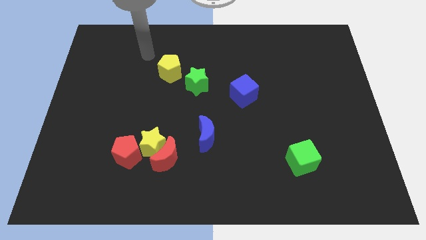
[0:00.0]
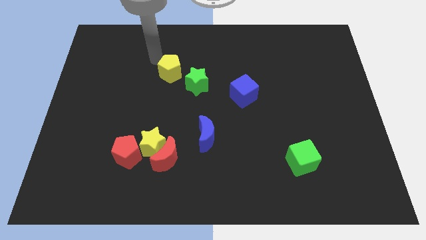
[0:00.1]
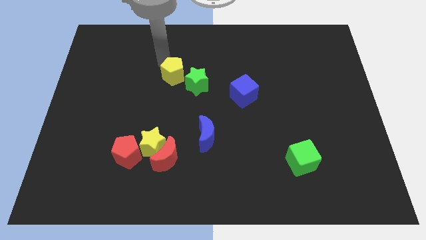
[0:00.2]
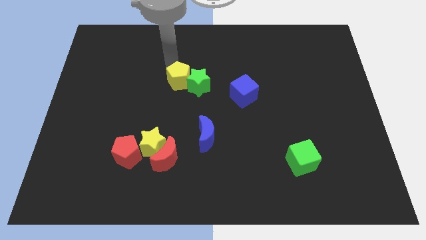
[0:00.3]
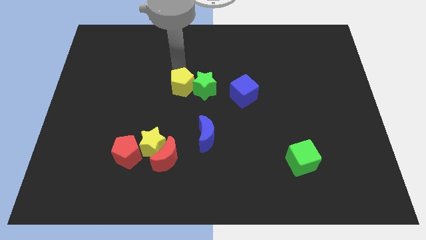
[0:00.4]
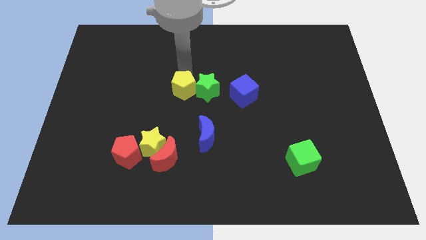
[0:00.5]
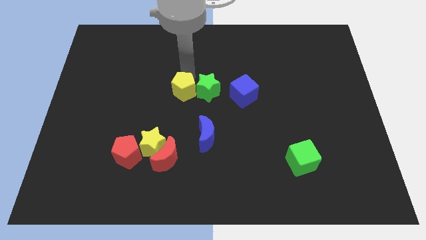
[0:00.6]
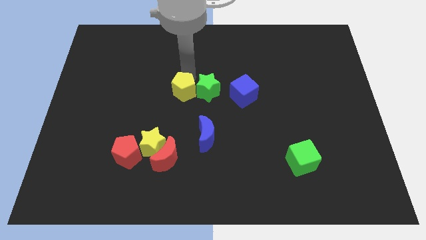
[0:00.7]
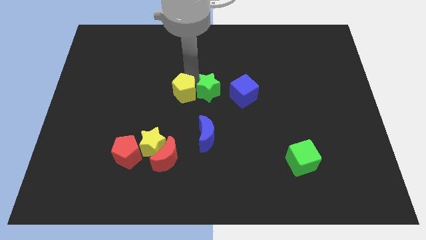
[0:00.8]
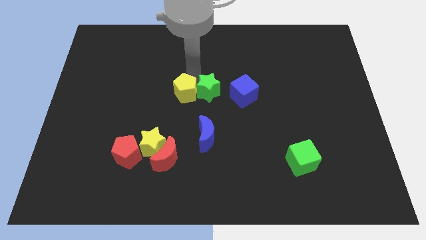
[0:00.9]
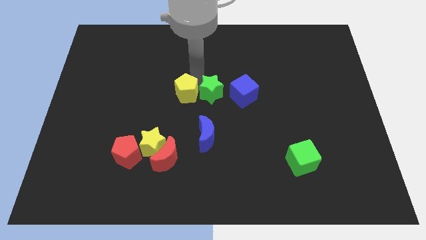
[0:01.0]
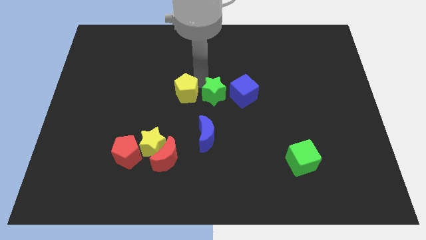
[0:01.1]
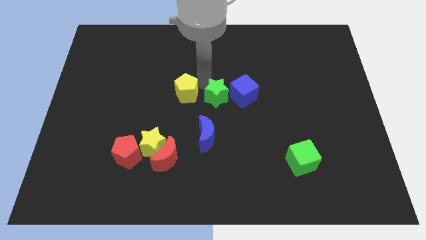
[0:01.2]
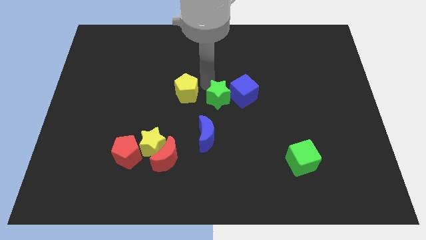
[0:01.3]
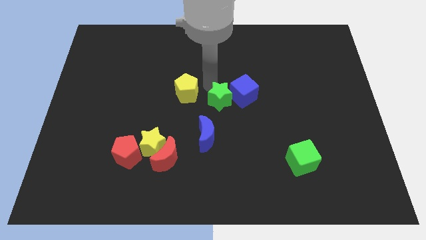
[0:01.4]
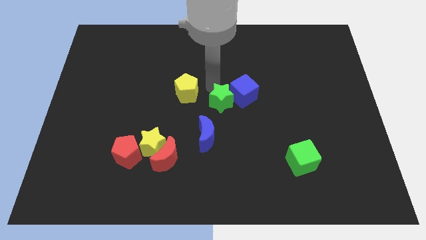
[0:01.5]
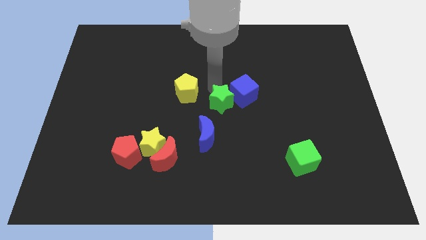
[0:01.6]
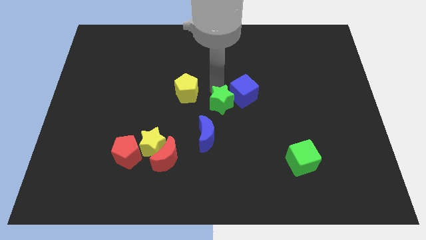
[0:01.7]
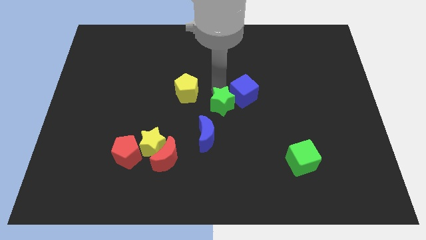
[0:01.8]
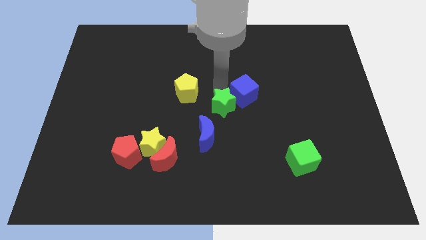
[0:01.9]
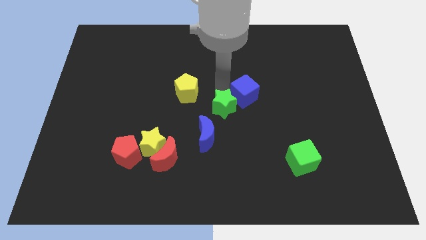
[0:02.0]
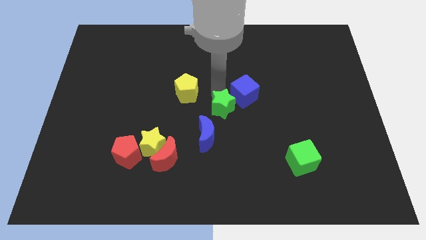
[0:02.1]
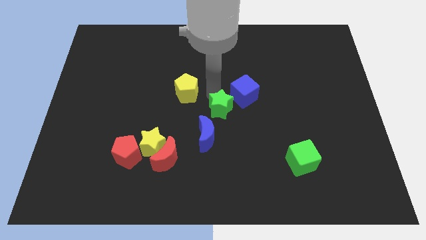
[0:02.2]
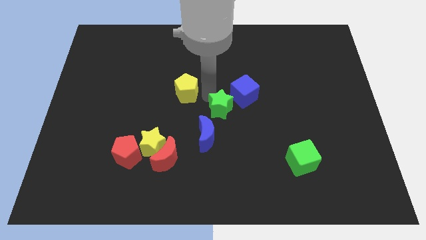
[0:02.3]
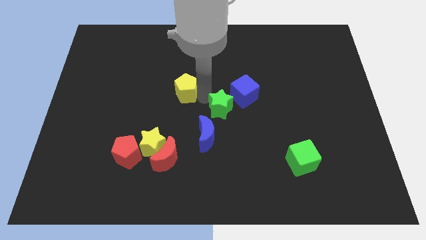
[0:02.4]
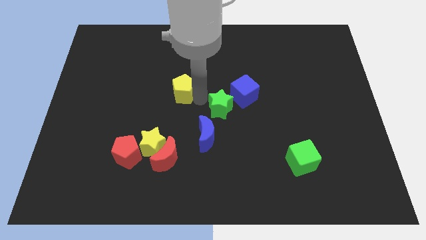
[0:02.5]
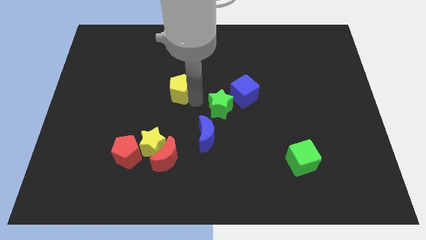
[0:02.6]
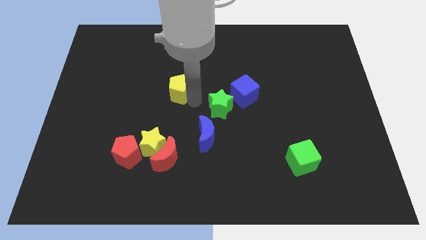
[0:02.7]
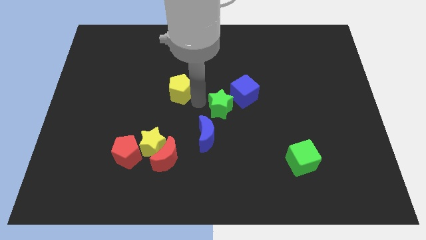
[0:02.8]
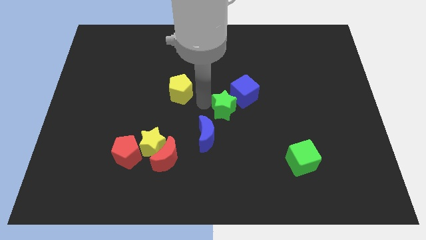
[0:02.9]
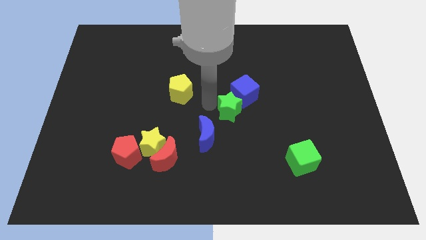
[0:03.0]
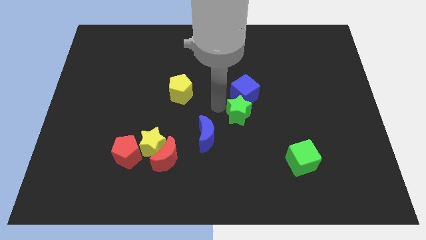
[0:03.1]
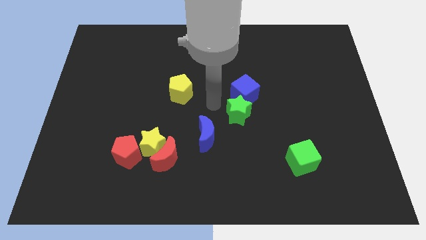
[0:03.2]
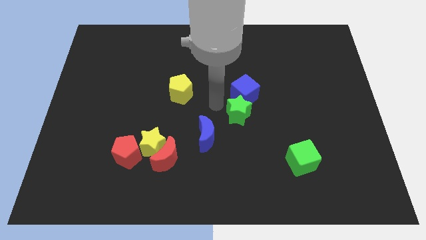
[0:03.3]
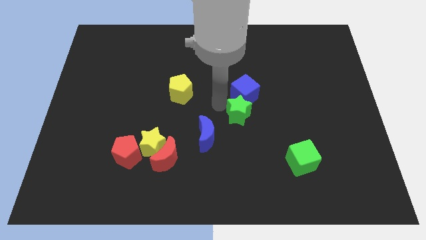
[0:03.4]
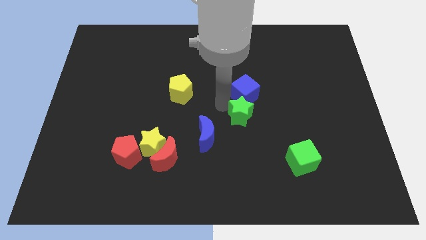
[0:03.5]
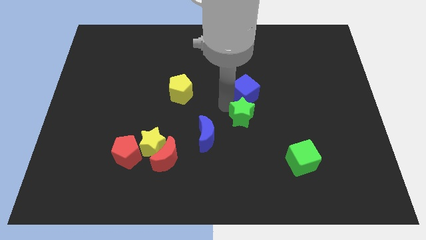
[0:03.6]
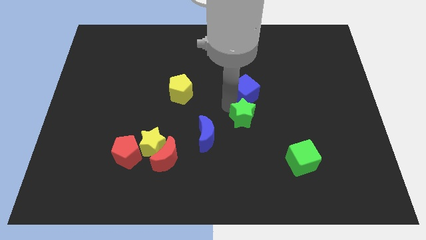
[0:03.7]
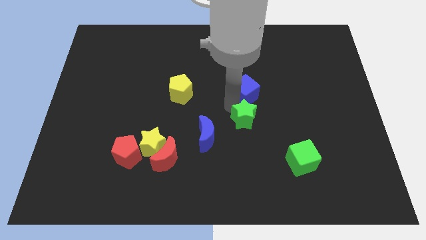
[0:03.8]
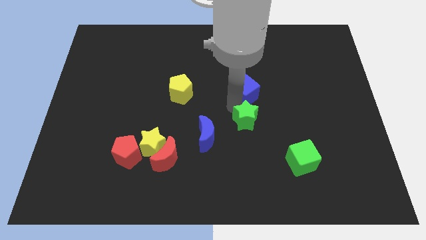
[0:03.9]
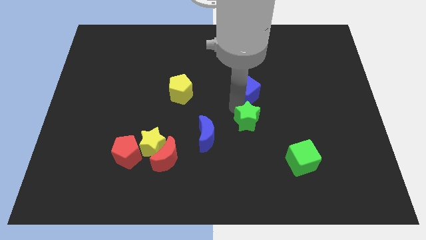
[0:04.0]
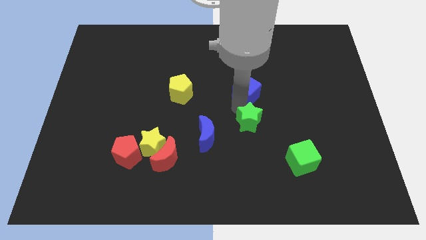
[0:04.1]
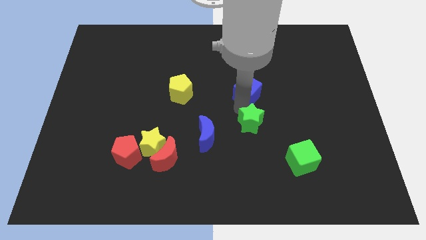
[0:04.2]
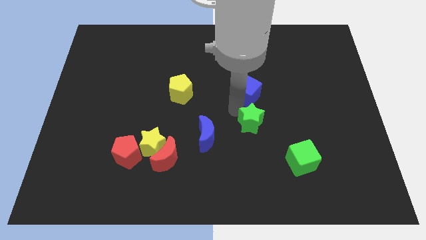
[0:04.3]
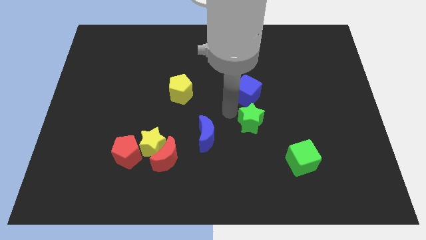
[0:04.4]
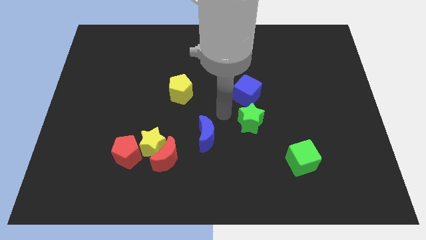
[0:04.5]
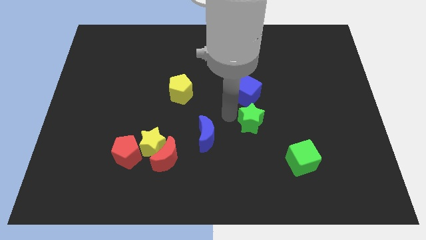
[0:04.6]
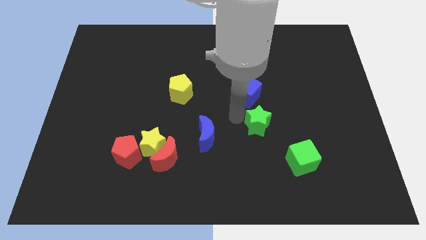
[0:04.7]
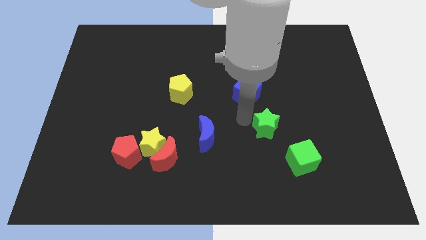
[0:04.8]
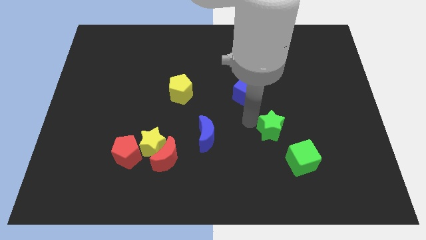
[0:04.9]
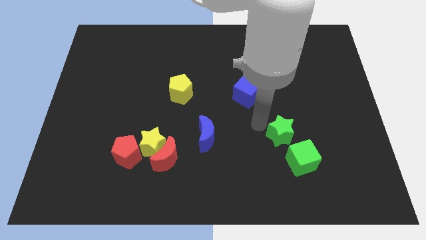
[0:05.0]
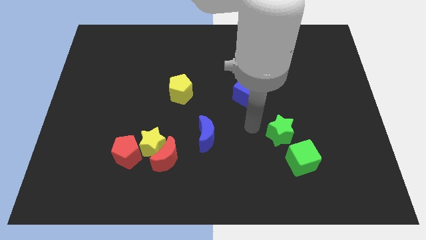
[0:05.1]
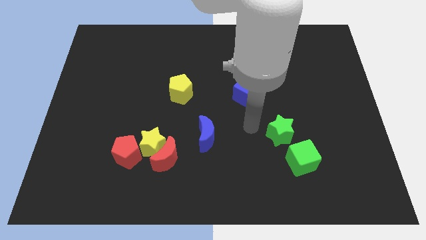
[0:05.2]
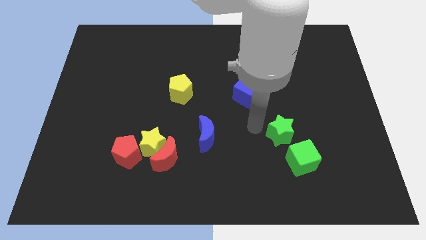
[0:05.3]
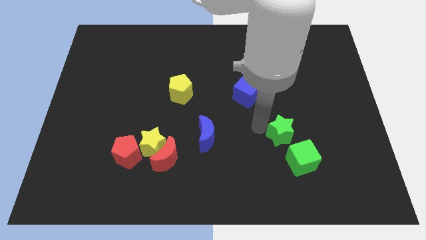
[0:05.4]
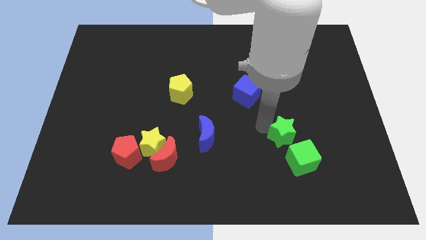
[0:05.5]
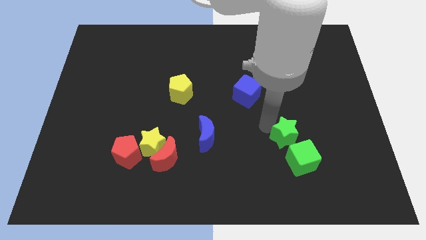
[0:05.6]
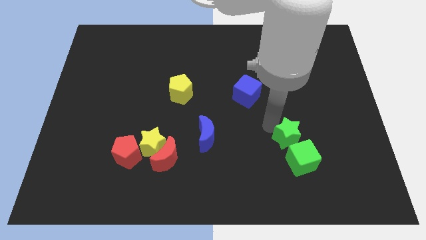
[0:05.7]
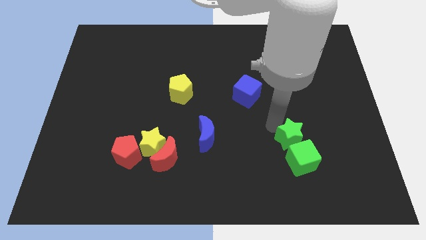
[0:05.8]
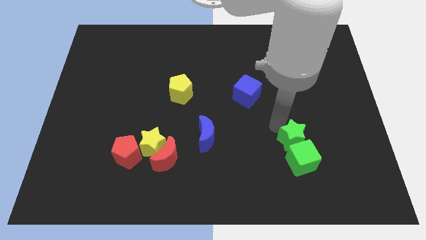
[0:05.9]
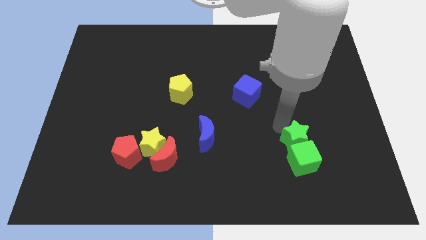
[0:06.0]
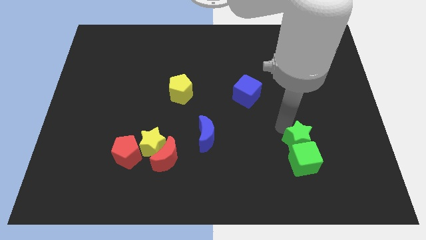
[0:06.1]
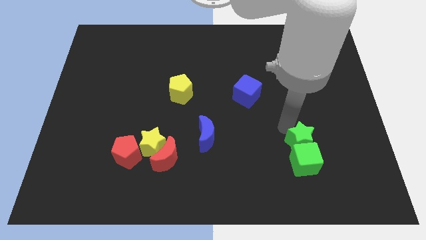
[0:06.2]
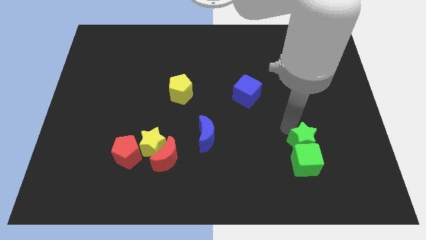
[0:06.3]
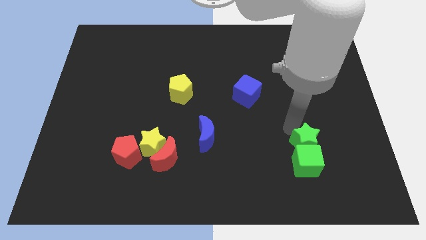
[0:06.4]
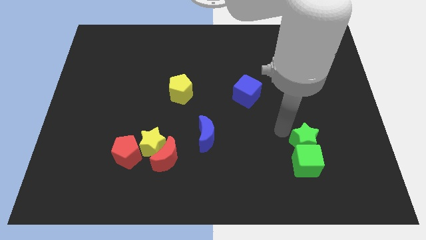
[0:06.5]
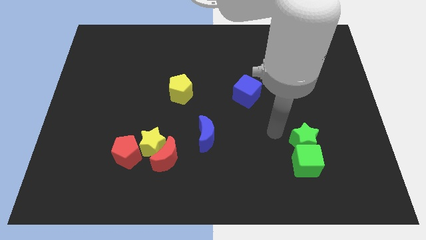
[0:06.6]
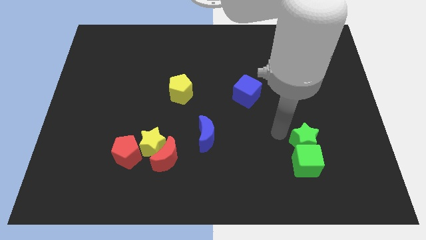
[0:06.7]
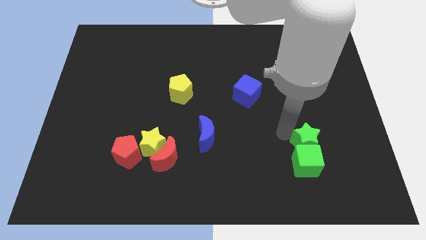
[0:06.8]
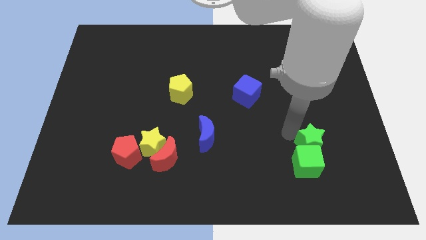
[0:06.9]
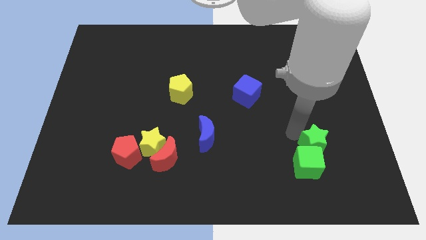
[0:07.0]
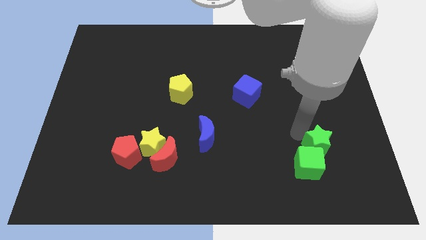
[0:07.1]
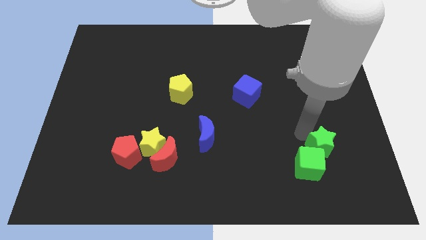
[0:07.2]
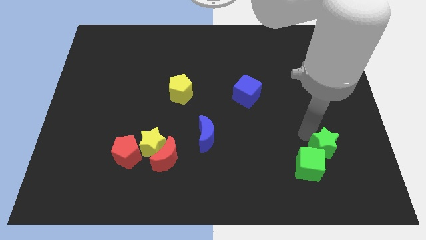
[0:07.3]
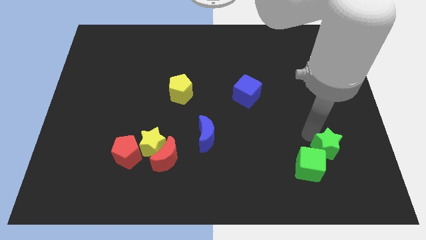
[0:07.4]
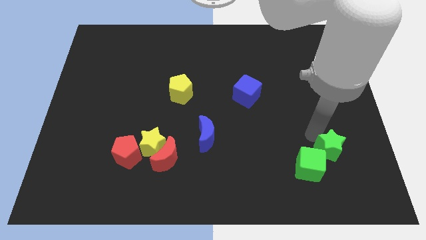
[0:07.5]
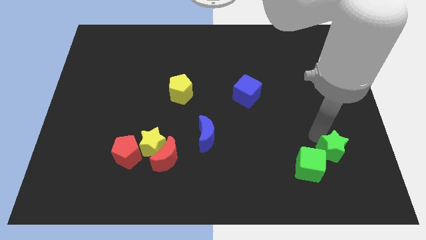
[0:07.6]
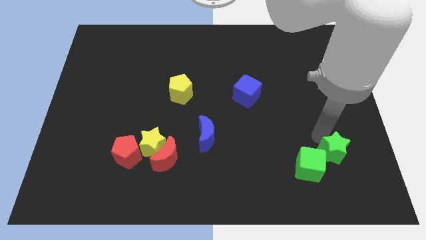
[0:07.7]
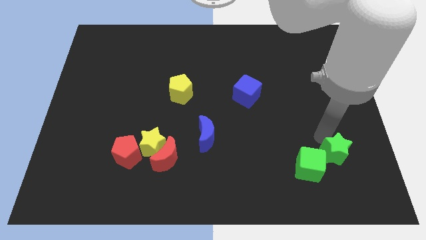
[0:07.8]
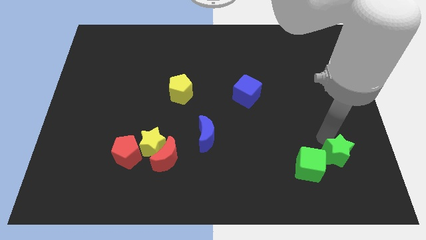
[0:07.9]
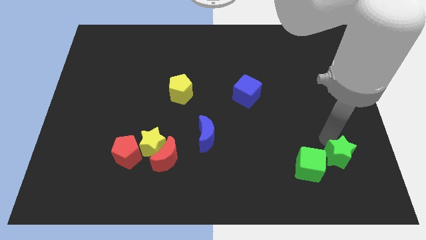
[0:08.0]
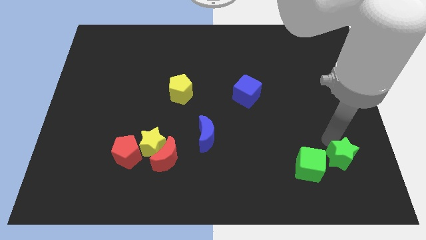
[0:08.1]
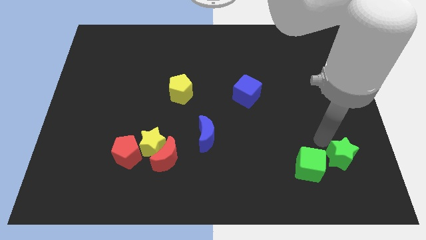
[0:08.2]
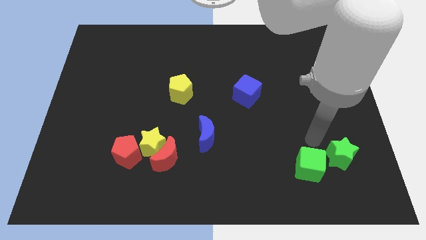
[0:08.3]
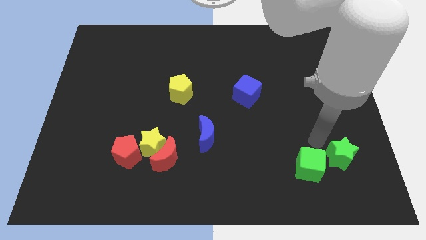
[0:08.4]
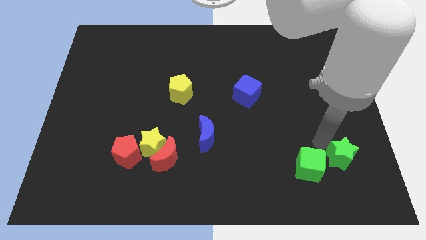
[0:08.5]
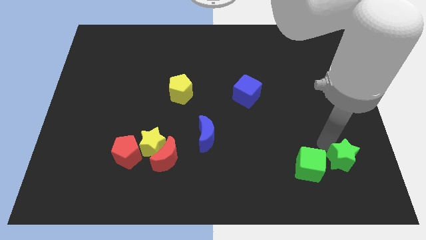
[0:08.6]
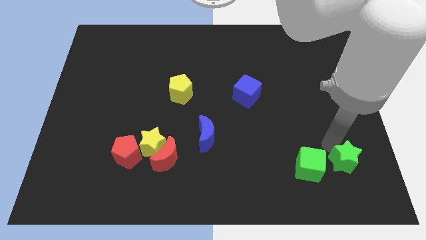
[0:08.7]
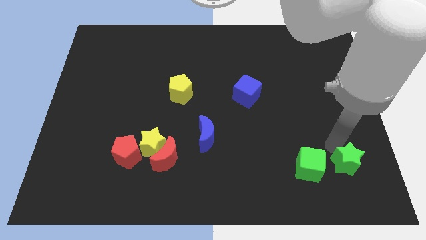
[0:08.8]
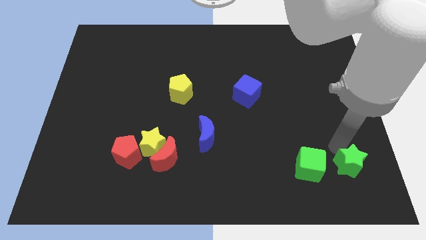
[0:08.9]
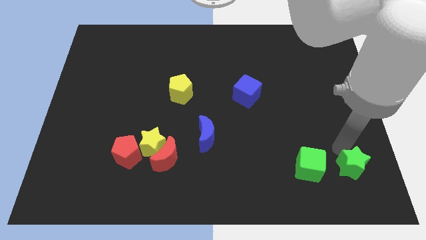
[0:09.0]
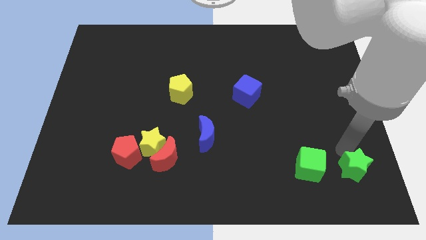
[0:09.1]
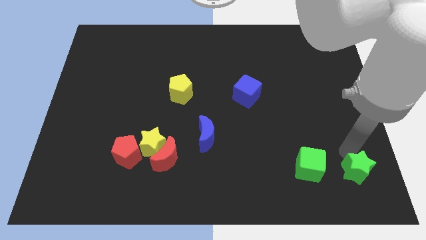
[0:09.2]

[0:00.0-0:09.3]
put the green star to the bottom right of the board
